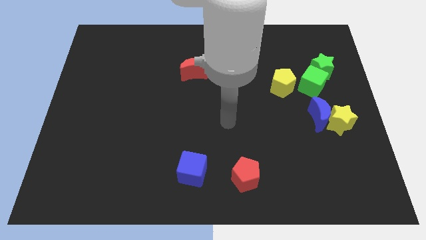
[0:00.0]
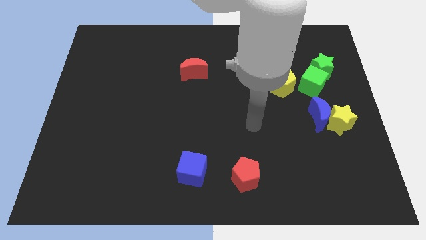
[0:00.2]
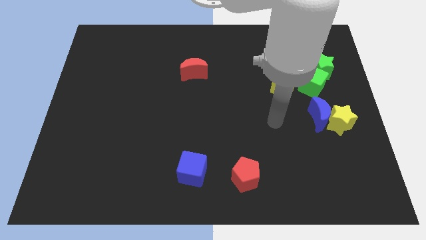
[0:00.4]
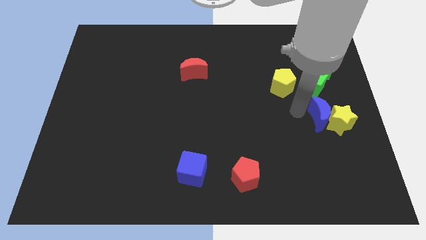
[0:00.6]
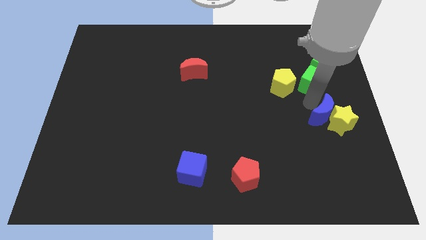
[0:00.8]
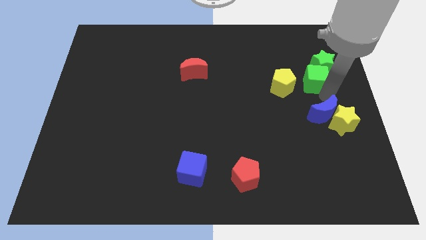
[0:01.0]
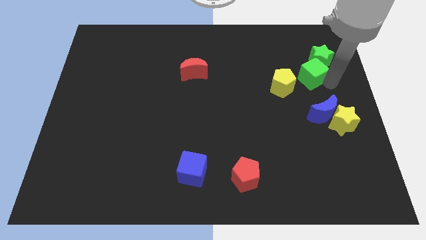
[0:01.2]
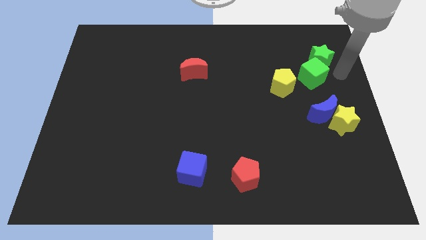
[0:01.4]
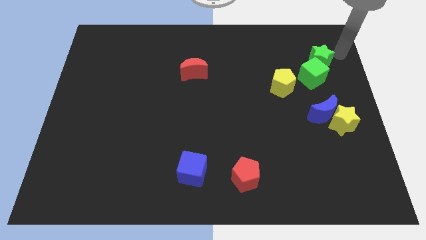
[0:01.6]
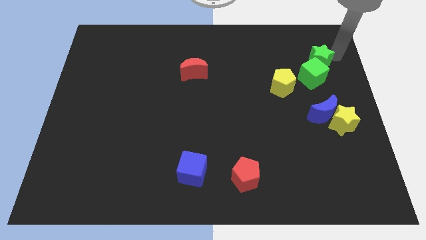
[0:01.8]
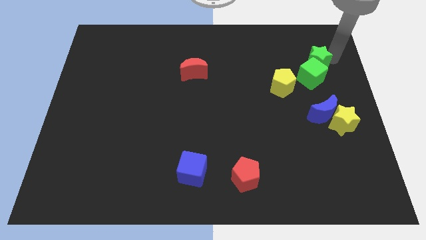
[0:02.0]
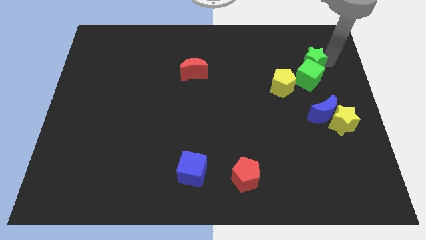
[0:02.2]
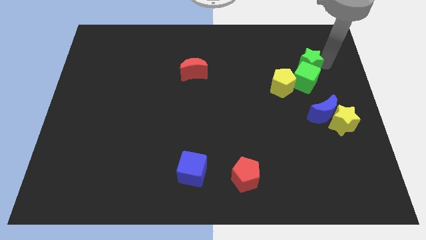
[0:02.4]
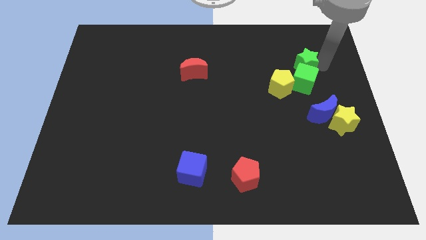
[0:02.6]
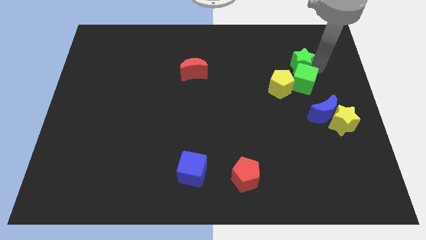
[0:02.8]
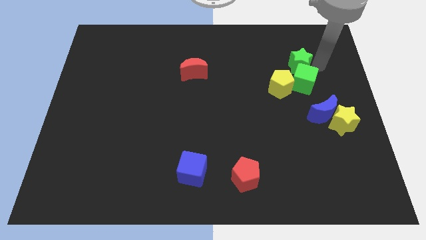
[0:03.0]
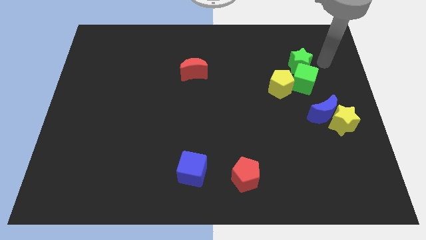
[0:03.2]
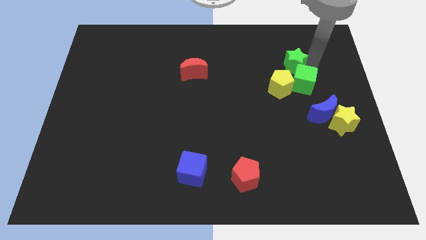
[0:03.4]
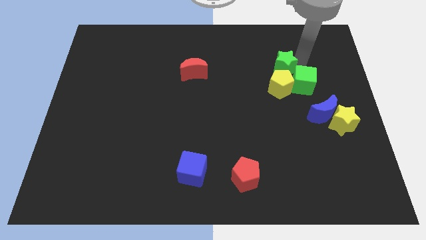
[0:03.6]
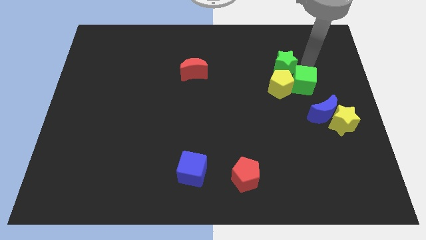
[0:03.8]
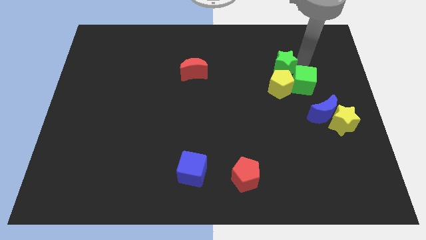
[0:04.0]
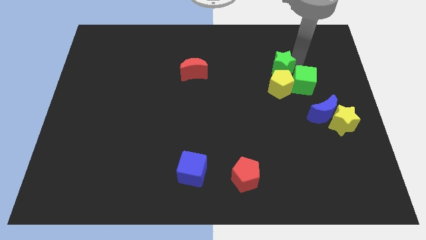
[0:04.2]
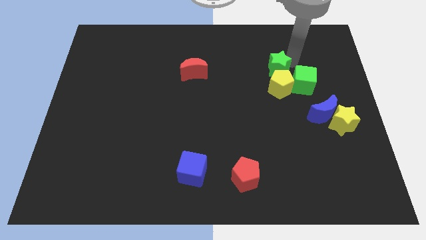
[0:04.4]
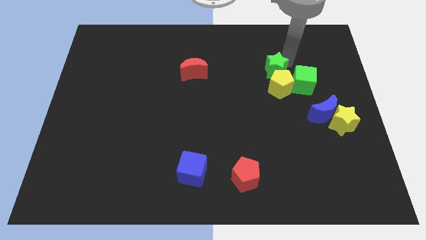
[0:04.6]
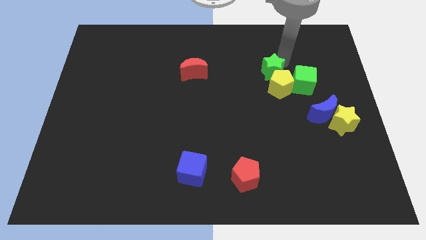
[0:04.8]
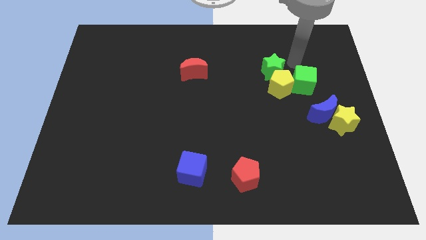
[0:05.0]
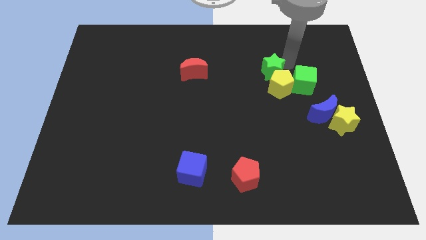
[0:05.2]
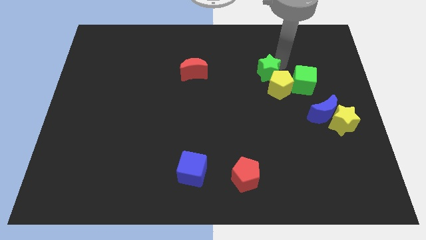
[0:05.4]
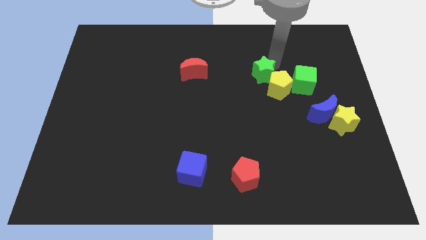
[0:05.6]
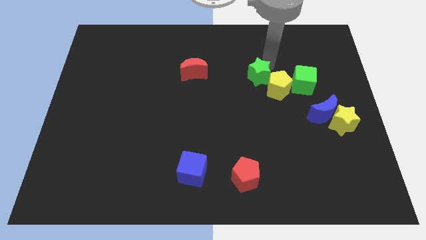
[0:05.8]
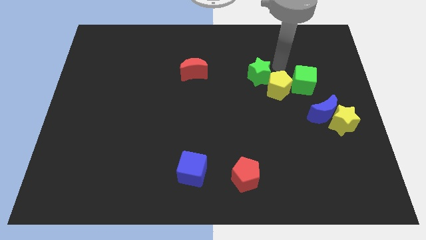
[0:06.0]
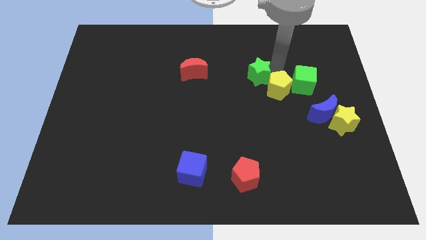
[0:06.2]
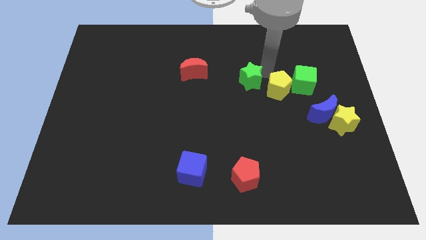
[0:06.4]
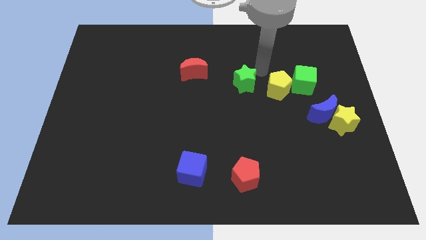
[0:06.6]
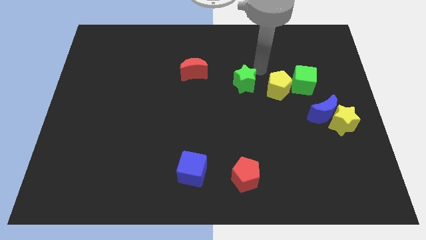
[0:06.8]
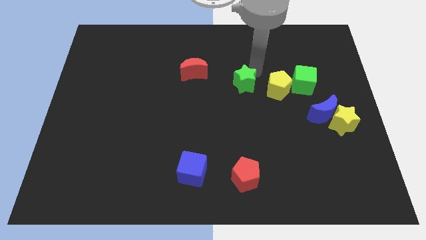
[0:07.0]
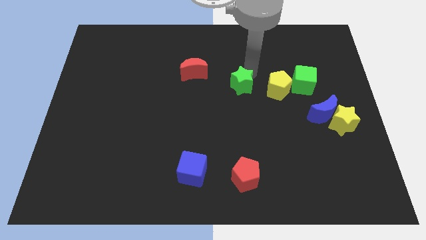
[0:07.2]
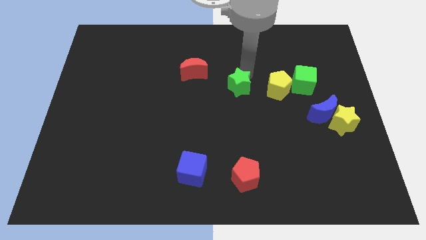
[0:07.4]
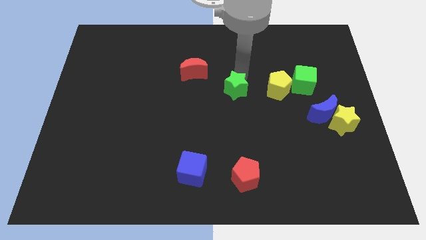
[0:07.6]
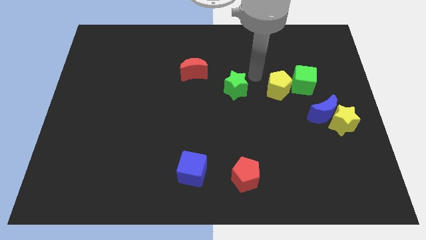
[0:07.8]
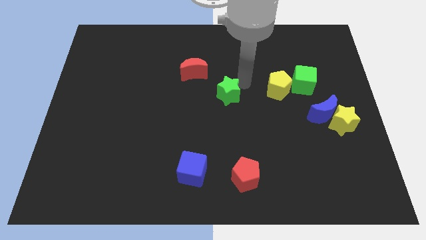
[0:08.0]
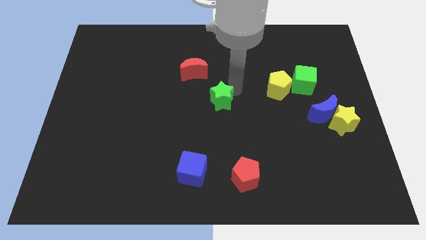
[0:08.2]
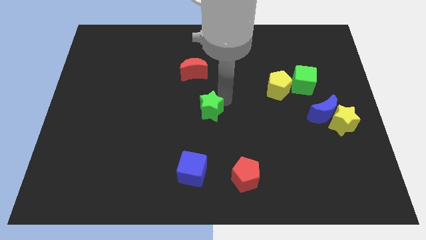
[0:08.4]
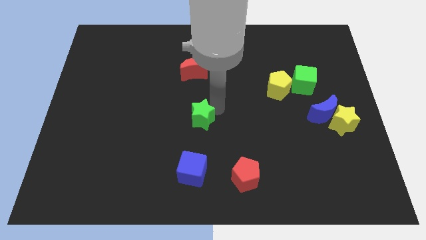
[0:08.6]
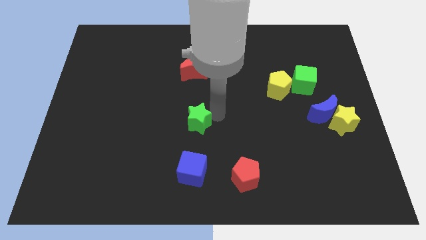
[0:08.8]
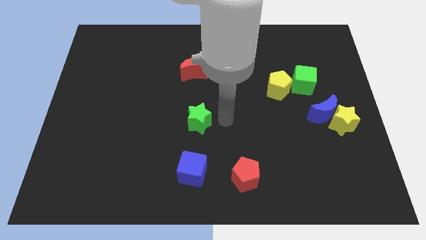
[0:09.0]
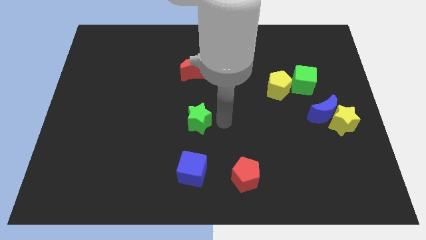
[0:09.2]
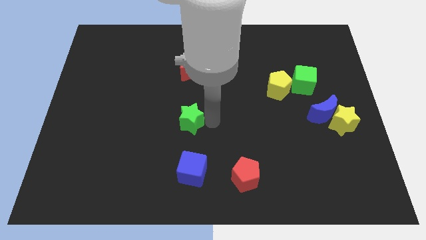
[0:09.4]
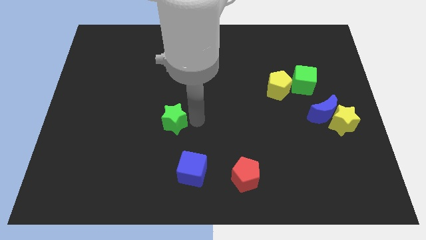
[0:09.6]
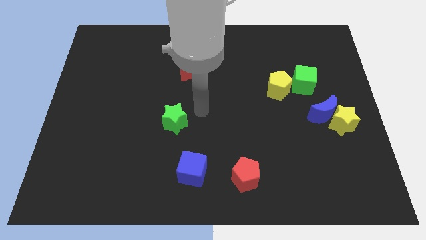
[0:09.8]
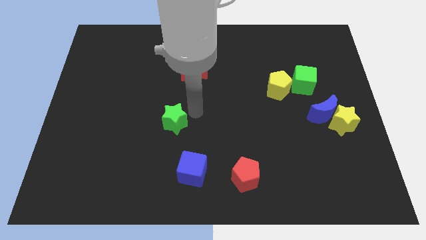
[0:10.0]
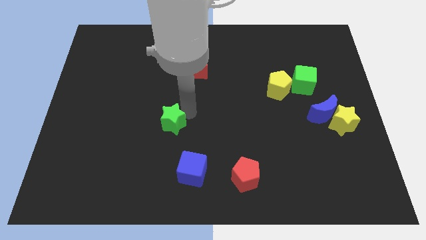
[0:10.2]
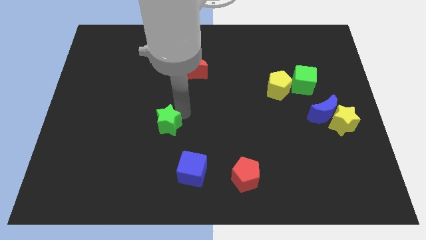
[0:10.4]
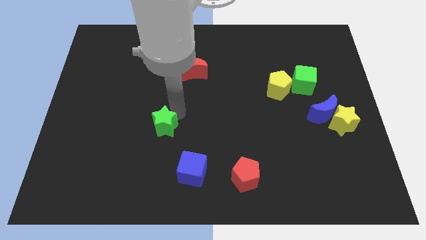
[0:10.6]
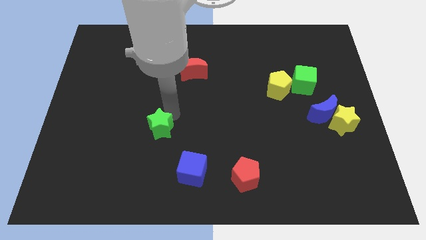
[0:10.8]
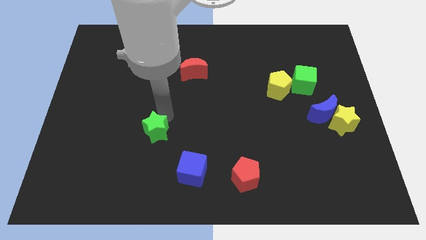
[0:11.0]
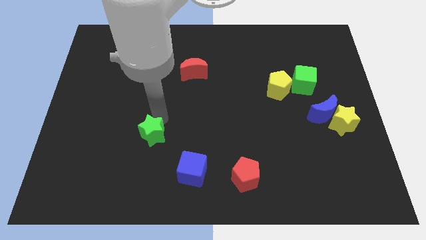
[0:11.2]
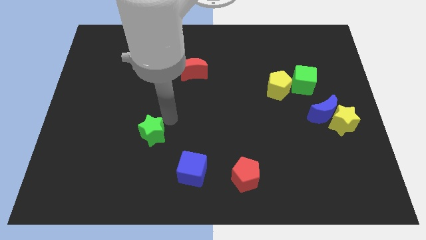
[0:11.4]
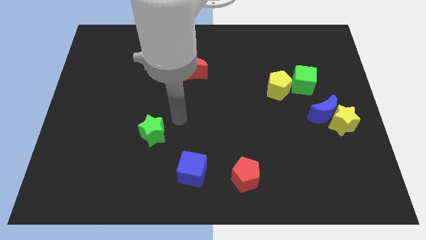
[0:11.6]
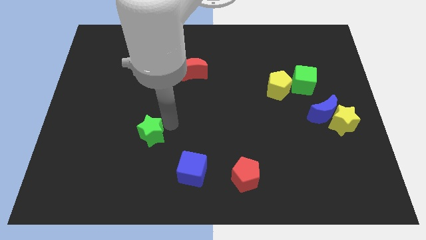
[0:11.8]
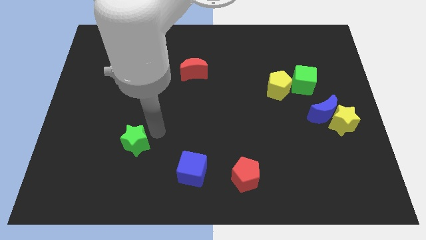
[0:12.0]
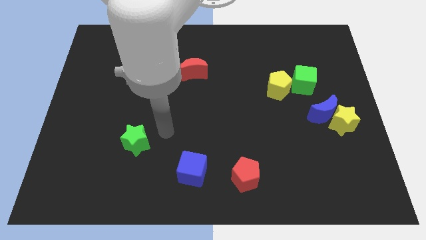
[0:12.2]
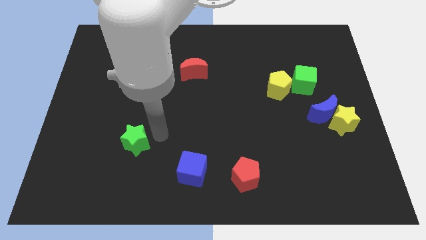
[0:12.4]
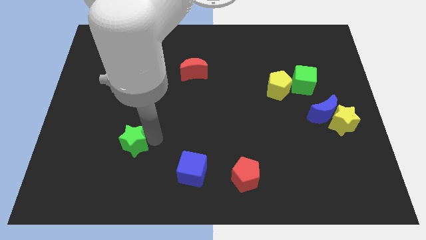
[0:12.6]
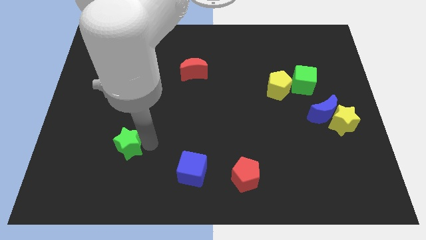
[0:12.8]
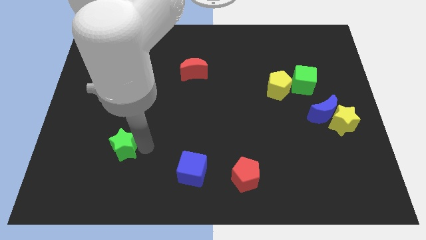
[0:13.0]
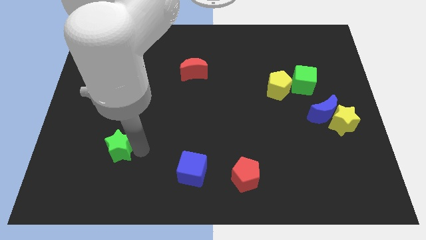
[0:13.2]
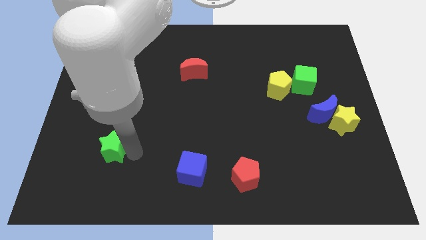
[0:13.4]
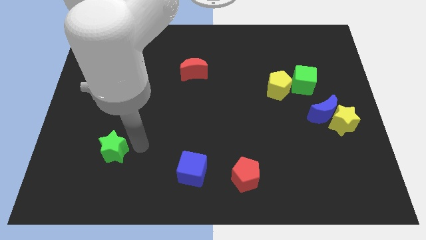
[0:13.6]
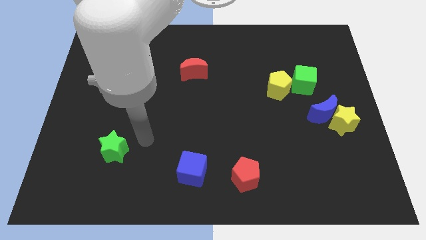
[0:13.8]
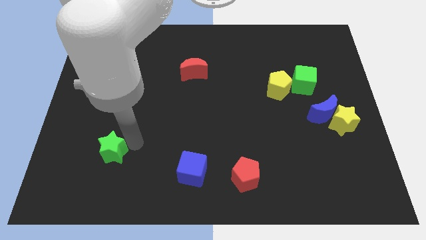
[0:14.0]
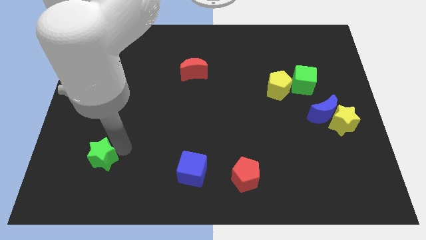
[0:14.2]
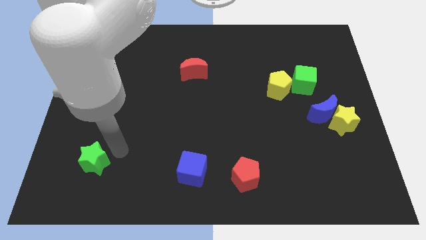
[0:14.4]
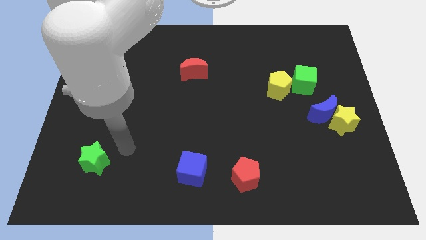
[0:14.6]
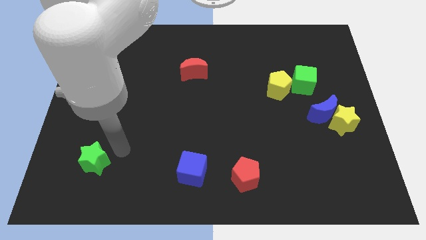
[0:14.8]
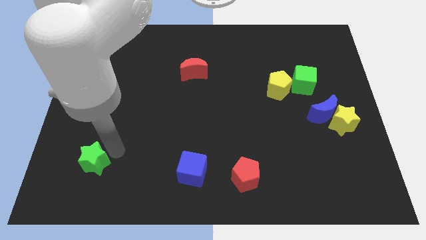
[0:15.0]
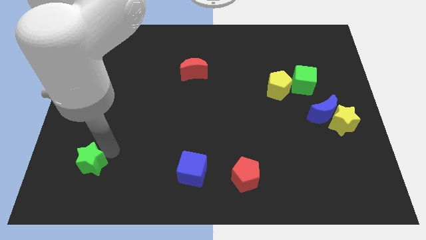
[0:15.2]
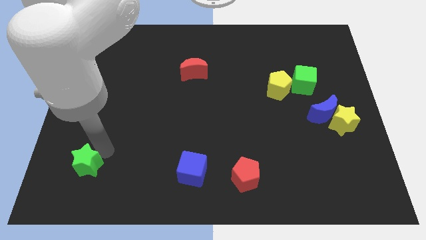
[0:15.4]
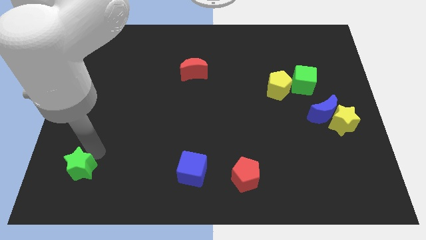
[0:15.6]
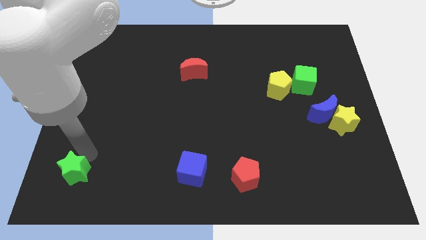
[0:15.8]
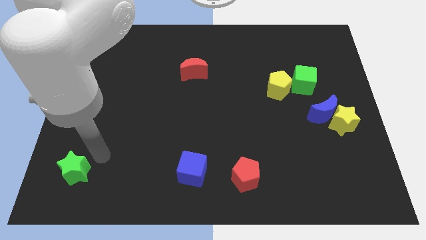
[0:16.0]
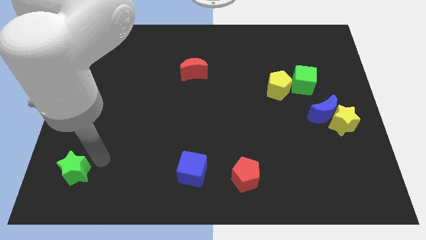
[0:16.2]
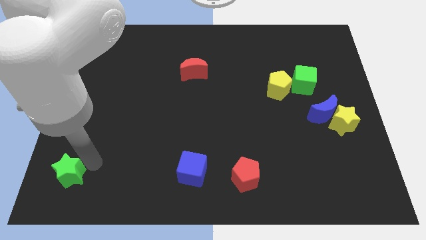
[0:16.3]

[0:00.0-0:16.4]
put the green star to the bottom left

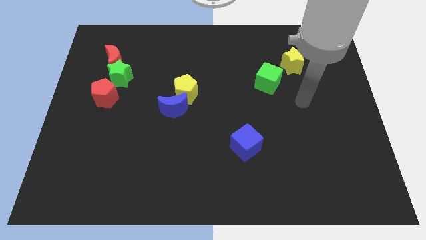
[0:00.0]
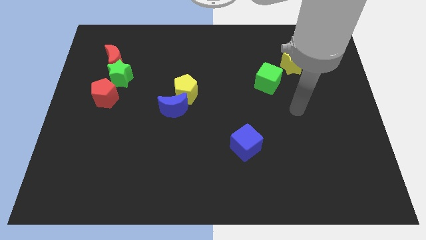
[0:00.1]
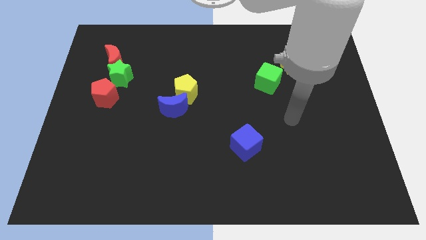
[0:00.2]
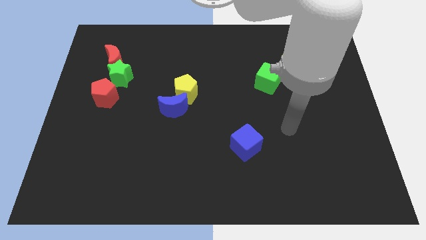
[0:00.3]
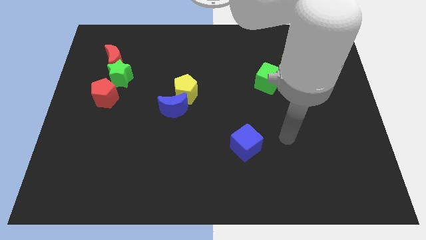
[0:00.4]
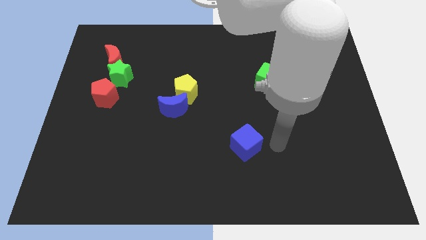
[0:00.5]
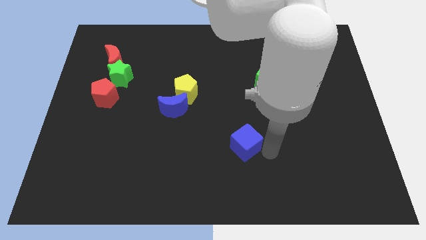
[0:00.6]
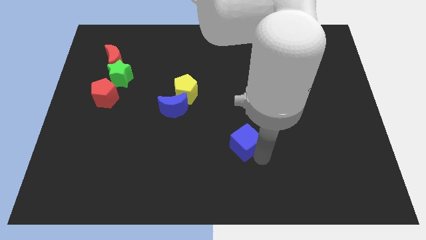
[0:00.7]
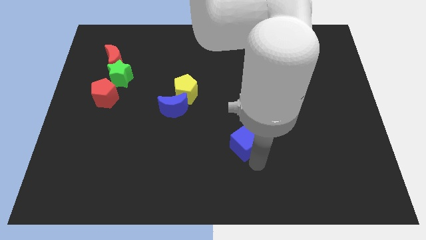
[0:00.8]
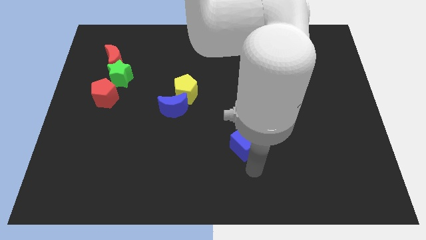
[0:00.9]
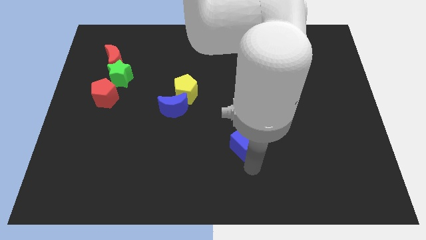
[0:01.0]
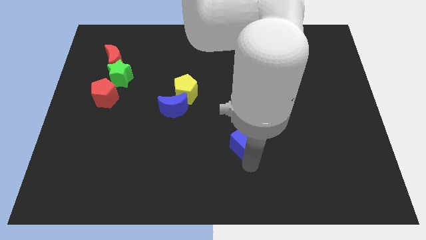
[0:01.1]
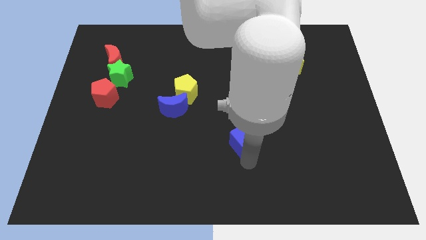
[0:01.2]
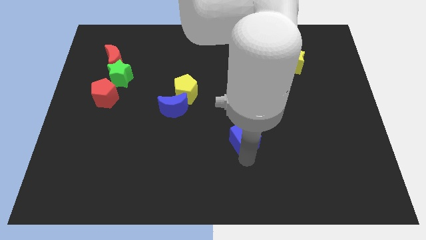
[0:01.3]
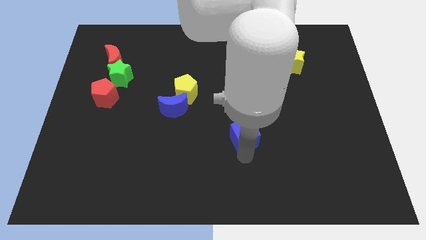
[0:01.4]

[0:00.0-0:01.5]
put the blue cube to the middle
